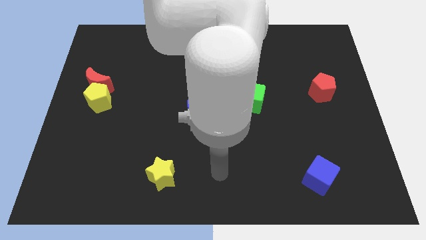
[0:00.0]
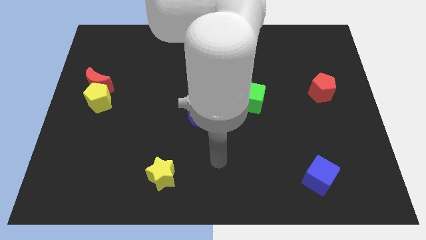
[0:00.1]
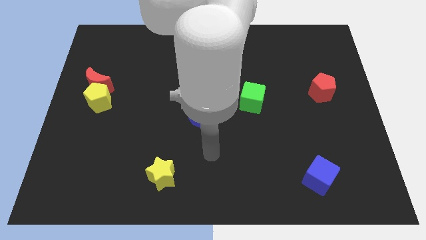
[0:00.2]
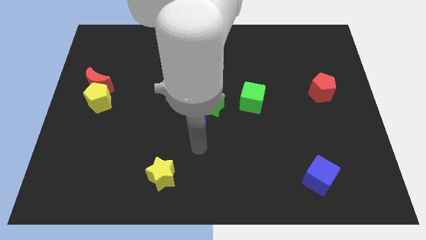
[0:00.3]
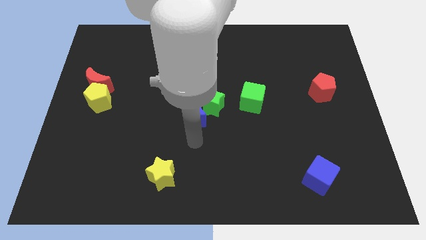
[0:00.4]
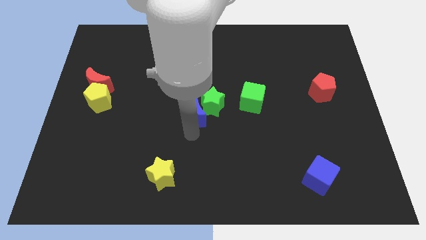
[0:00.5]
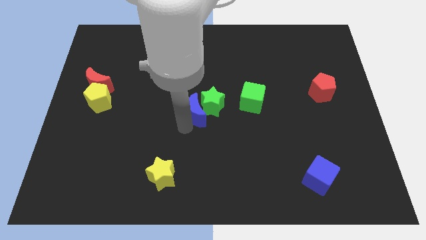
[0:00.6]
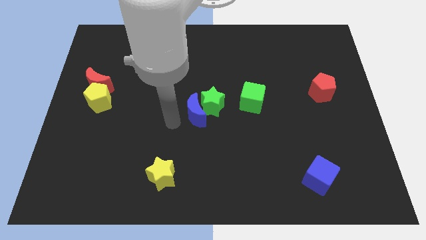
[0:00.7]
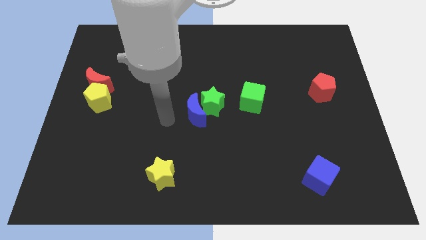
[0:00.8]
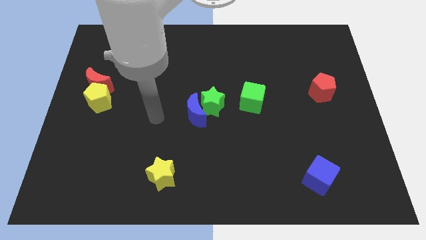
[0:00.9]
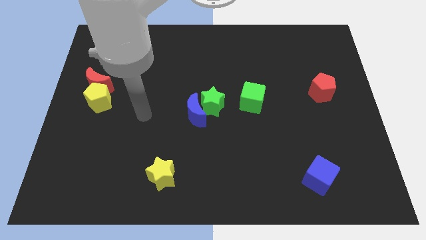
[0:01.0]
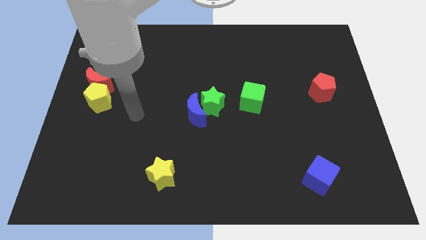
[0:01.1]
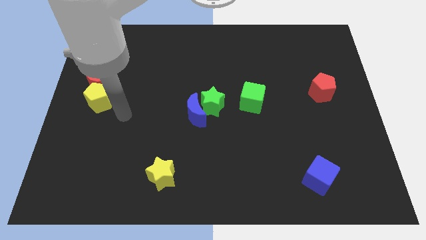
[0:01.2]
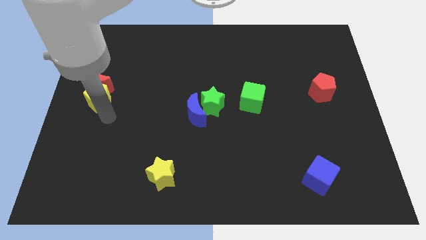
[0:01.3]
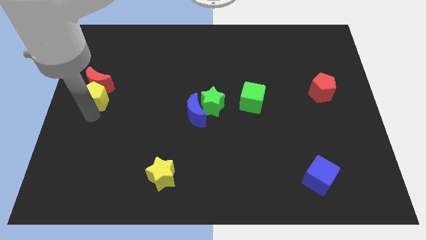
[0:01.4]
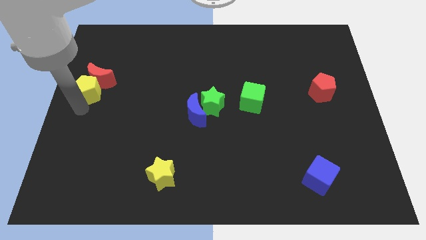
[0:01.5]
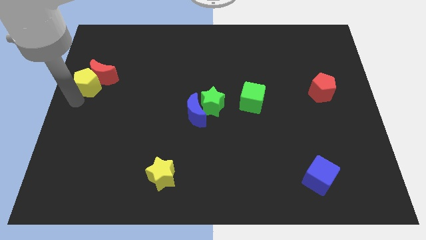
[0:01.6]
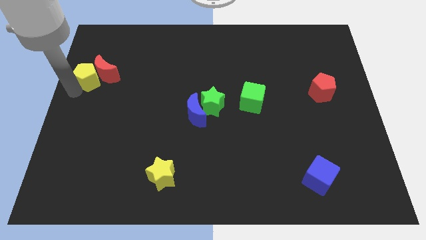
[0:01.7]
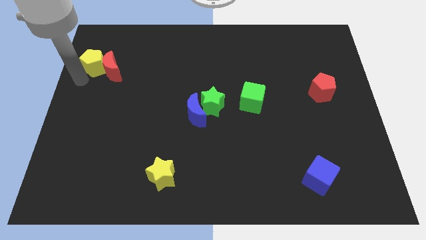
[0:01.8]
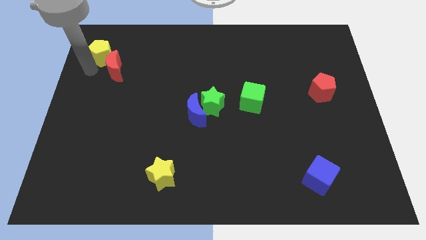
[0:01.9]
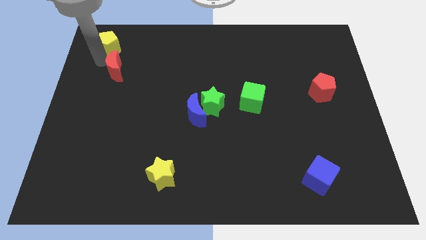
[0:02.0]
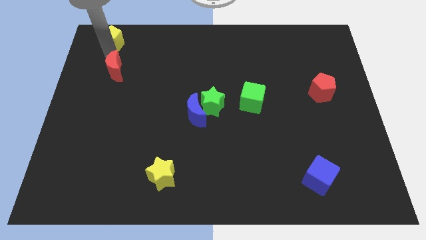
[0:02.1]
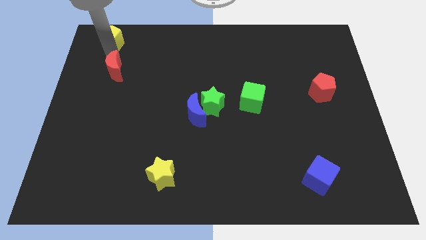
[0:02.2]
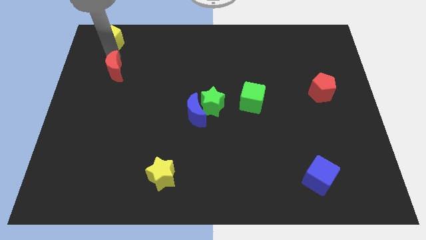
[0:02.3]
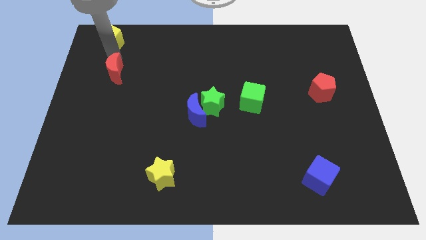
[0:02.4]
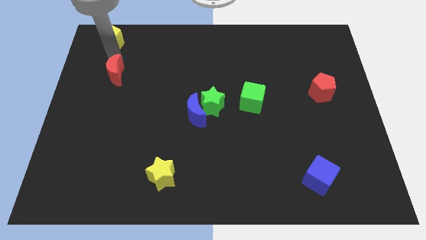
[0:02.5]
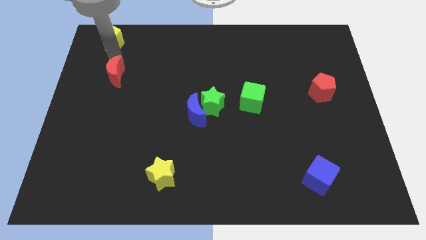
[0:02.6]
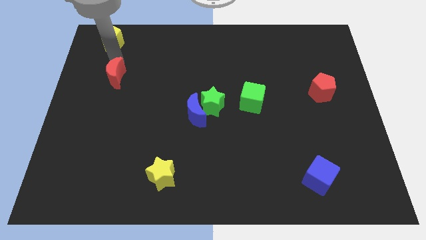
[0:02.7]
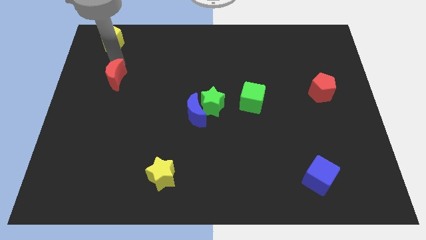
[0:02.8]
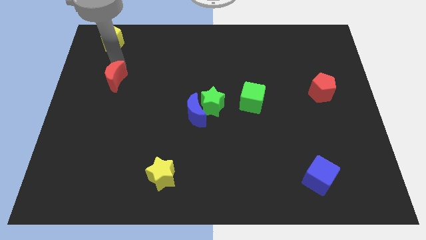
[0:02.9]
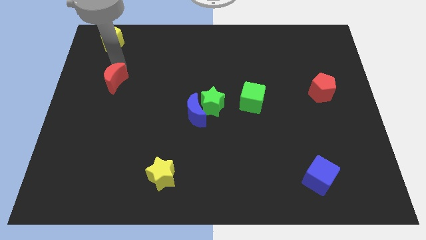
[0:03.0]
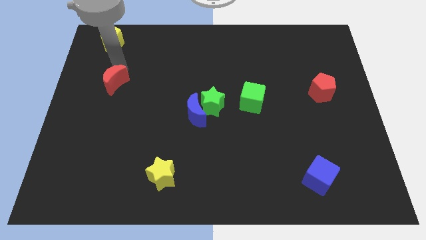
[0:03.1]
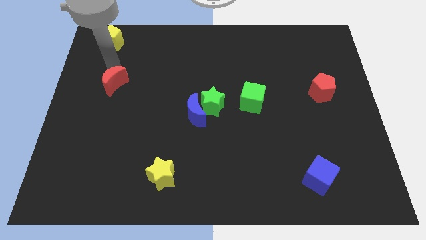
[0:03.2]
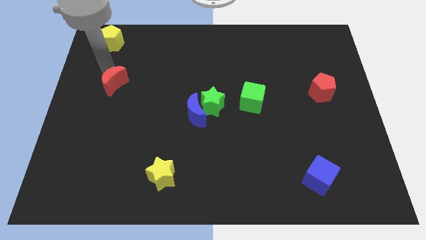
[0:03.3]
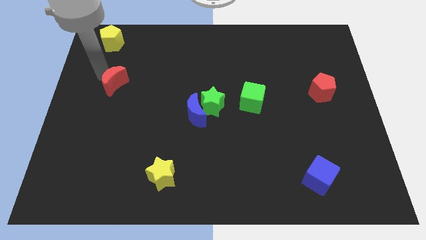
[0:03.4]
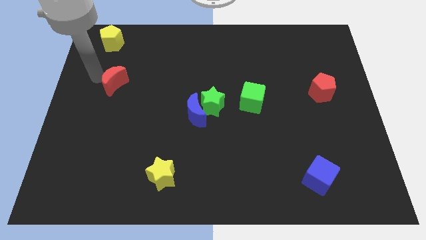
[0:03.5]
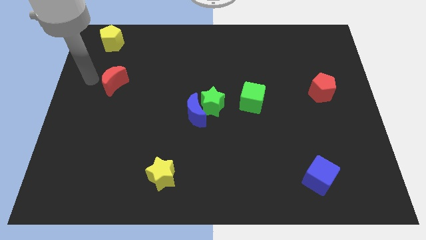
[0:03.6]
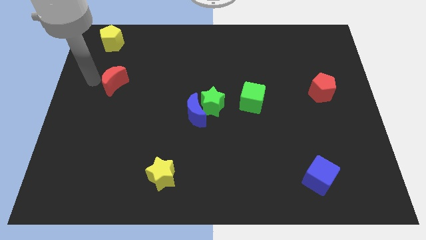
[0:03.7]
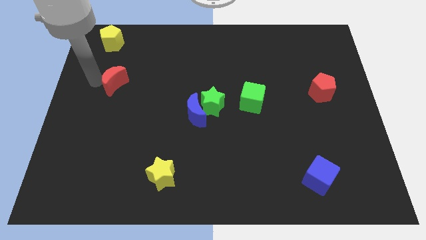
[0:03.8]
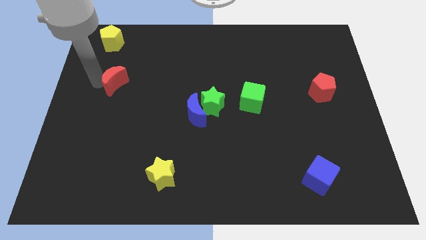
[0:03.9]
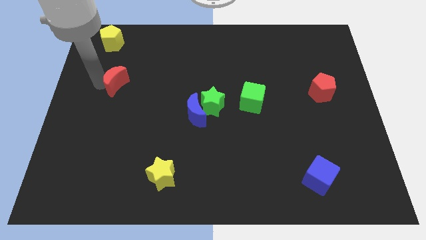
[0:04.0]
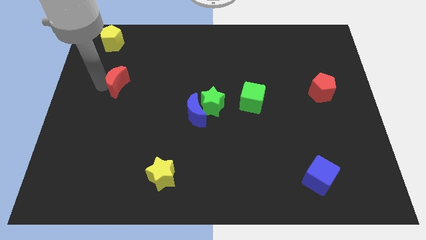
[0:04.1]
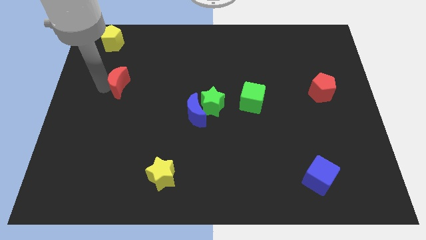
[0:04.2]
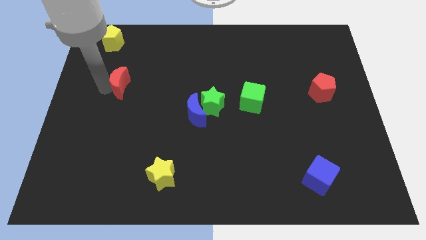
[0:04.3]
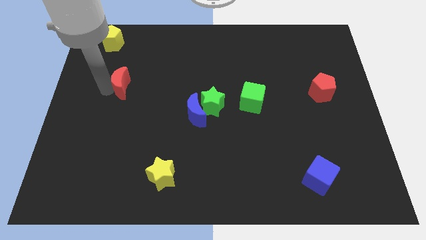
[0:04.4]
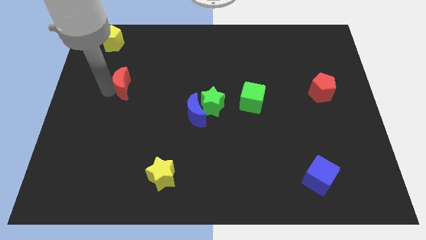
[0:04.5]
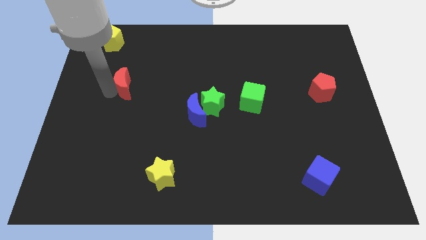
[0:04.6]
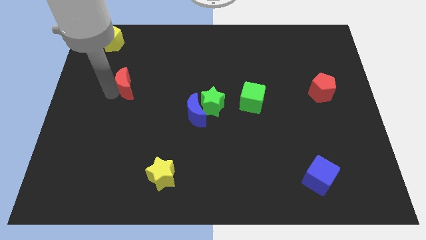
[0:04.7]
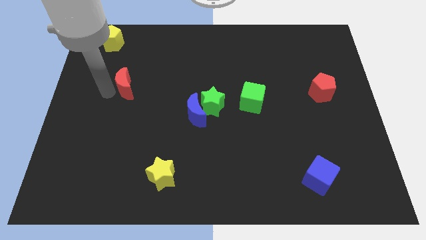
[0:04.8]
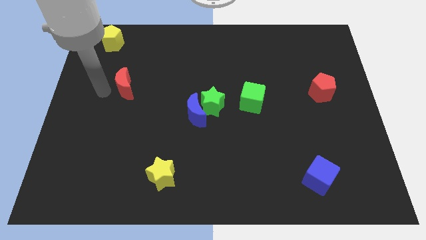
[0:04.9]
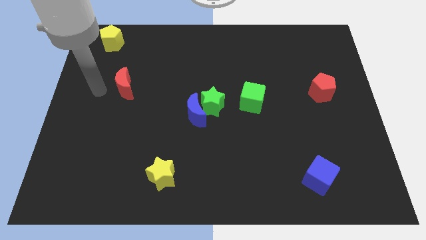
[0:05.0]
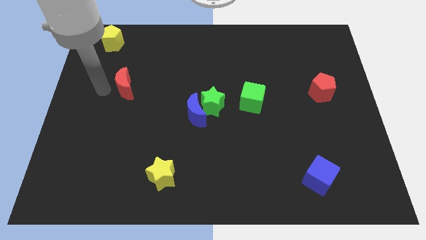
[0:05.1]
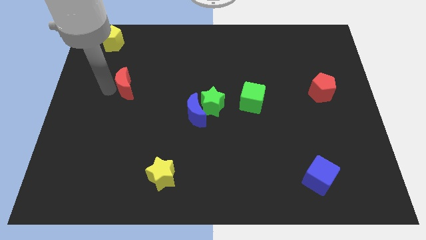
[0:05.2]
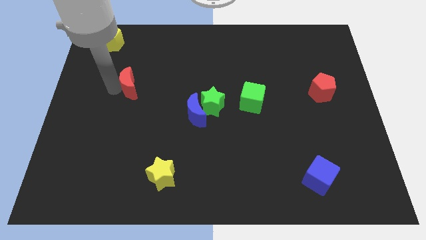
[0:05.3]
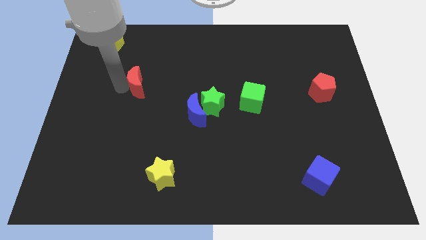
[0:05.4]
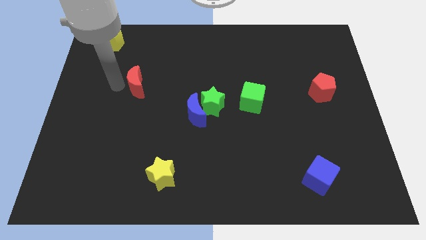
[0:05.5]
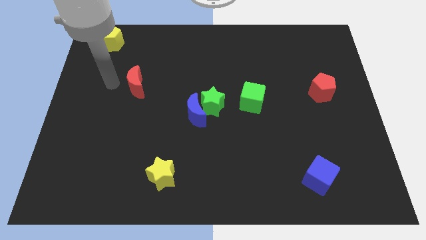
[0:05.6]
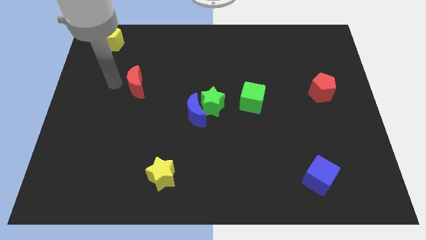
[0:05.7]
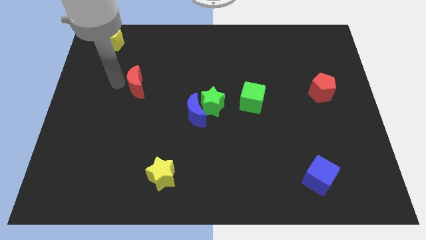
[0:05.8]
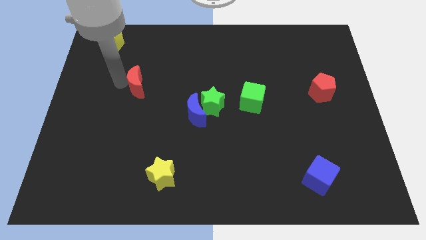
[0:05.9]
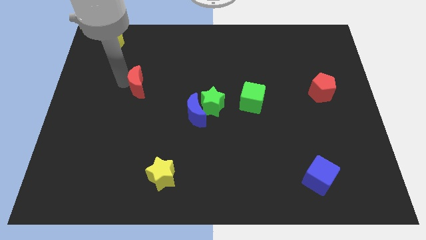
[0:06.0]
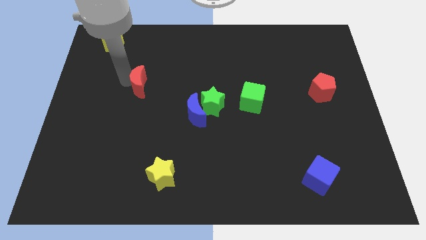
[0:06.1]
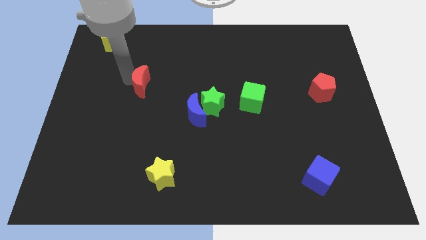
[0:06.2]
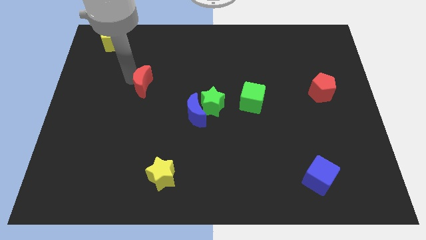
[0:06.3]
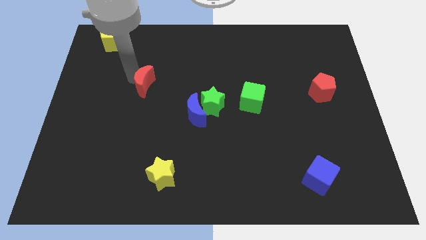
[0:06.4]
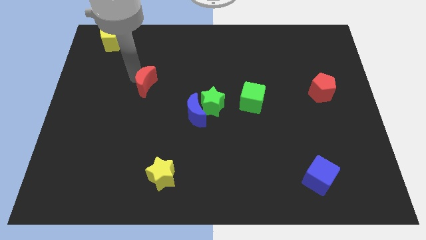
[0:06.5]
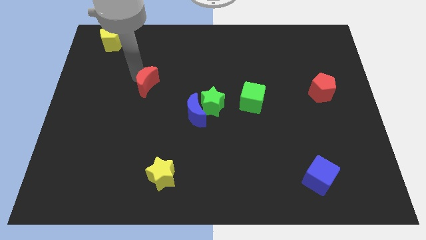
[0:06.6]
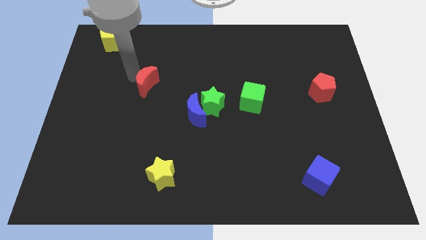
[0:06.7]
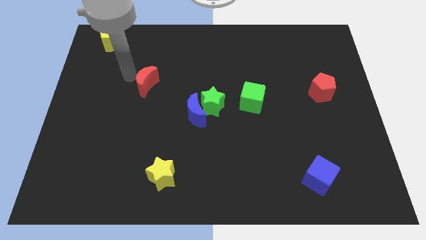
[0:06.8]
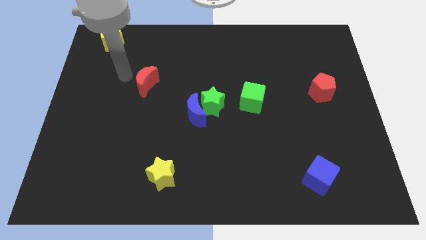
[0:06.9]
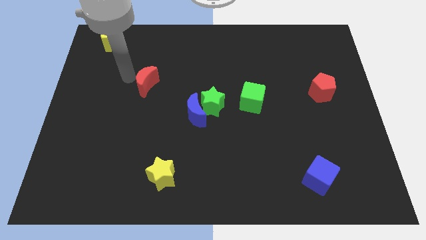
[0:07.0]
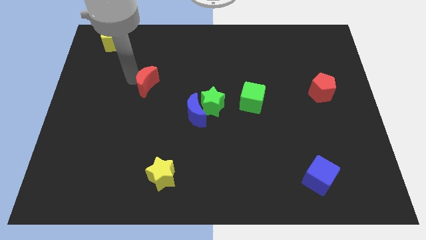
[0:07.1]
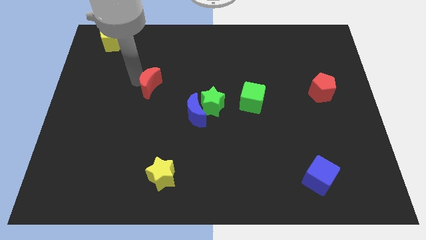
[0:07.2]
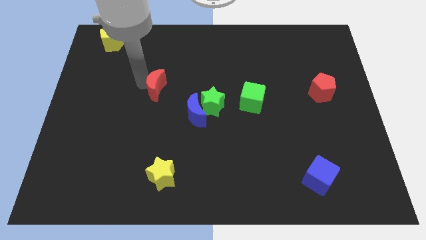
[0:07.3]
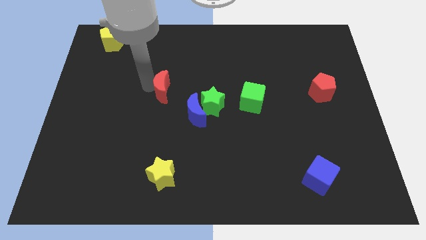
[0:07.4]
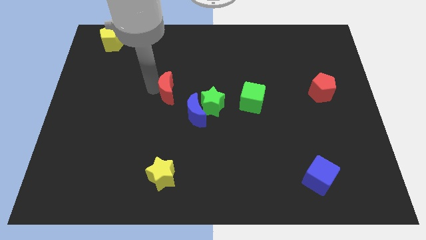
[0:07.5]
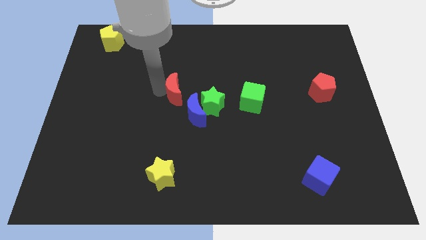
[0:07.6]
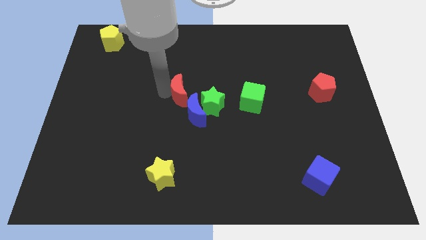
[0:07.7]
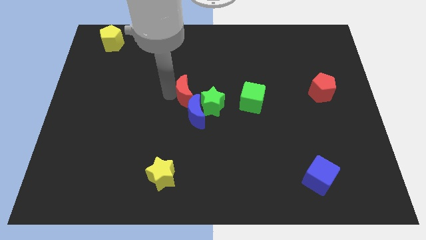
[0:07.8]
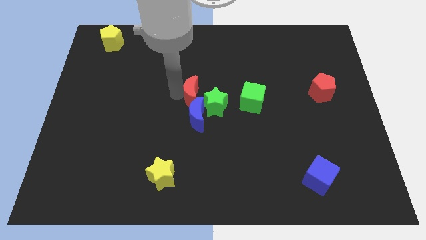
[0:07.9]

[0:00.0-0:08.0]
put the red moon close to the green star
